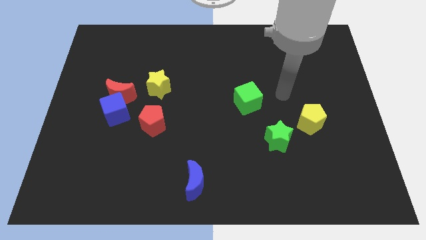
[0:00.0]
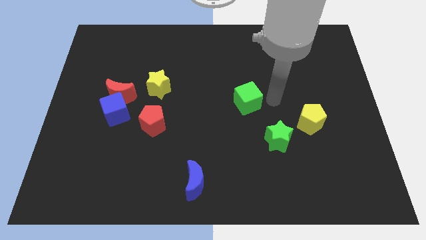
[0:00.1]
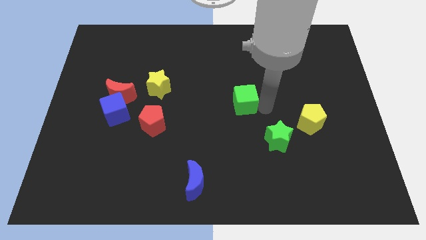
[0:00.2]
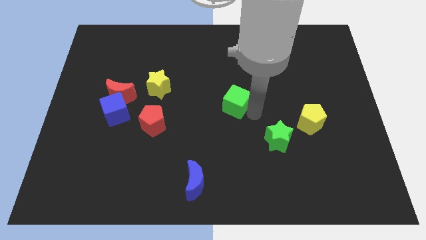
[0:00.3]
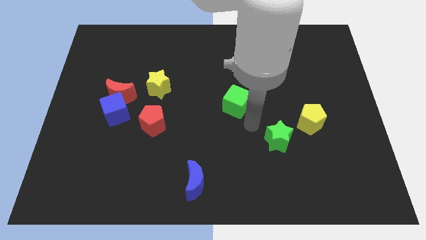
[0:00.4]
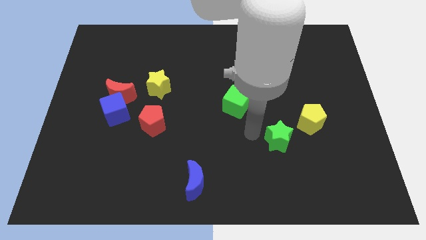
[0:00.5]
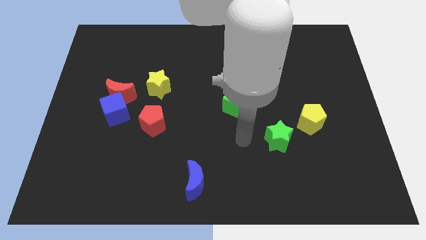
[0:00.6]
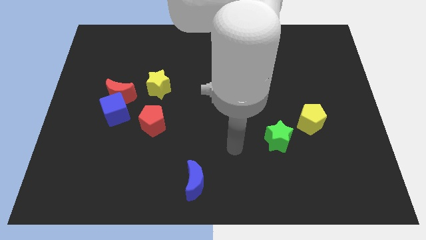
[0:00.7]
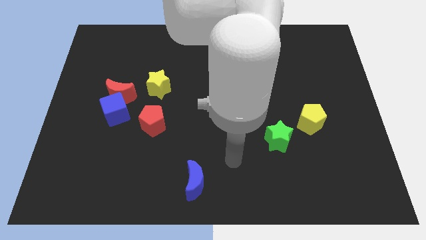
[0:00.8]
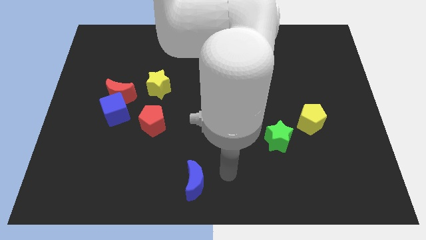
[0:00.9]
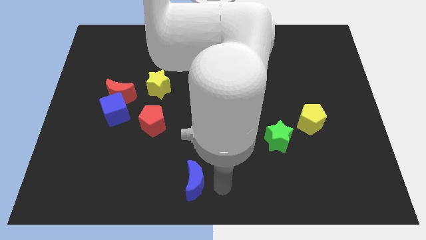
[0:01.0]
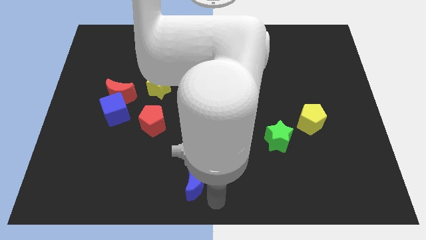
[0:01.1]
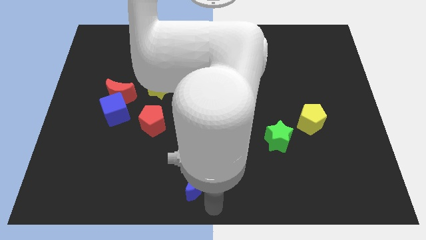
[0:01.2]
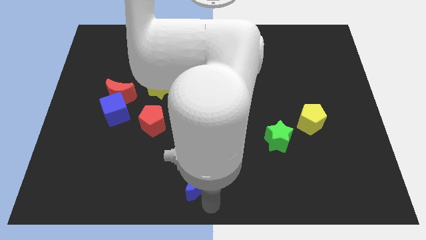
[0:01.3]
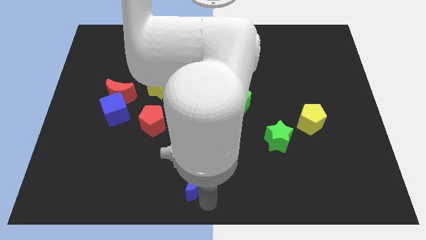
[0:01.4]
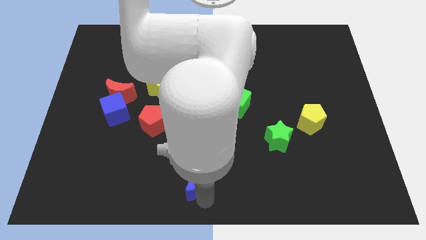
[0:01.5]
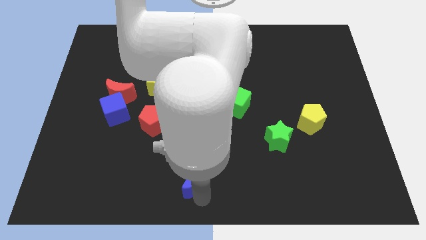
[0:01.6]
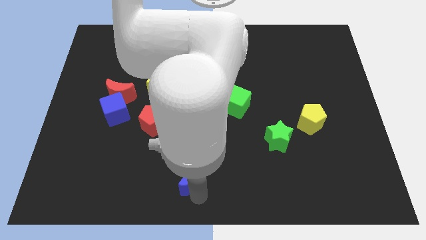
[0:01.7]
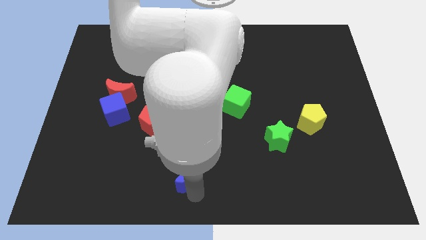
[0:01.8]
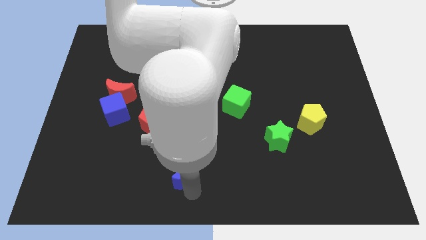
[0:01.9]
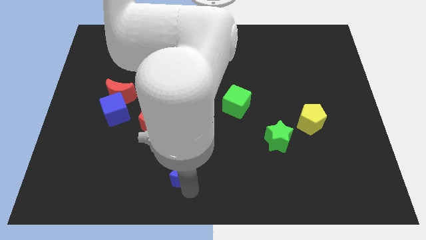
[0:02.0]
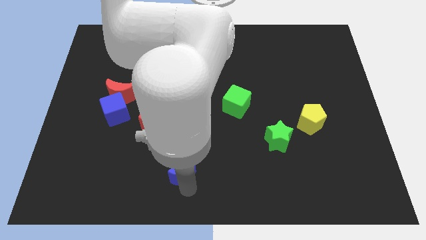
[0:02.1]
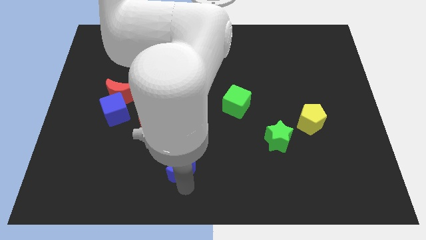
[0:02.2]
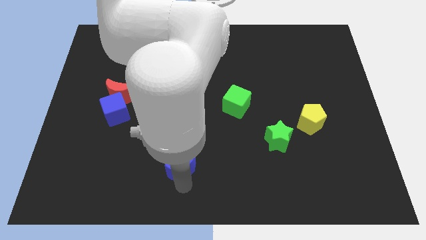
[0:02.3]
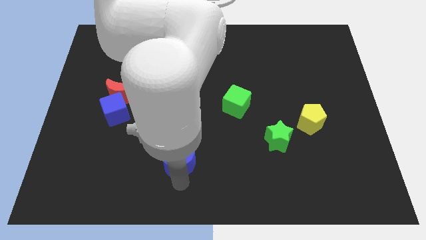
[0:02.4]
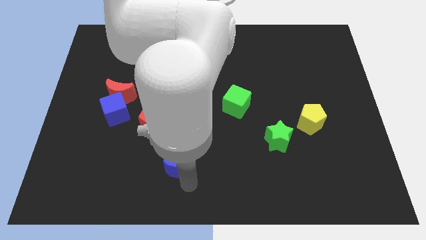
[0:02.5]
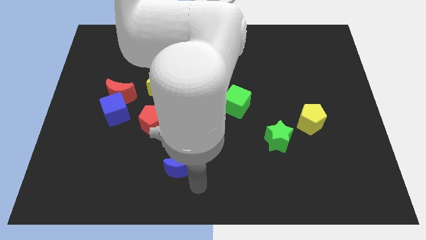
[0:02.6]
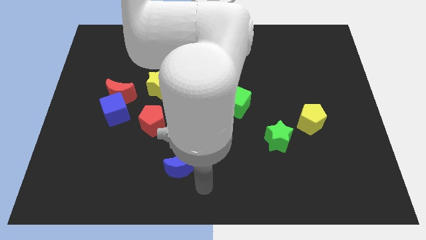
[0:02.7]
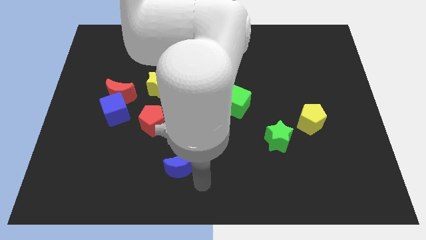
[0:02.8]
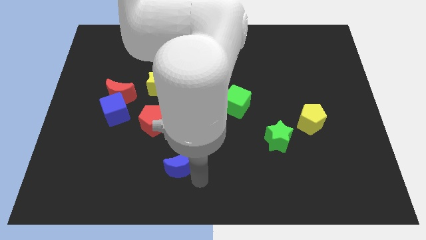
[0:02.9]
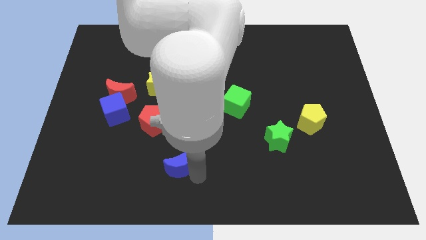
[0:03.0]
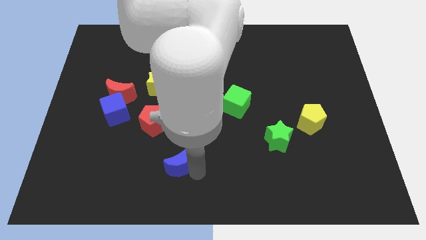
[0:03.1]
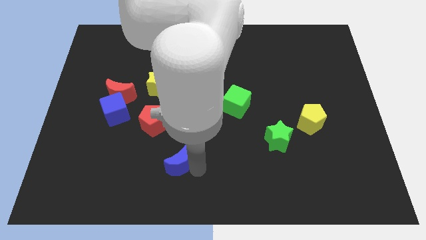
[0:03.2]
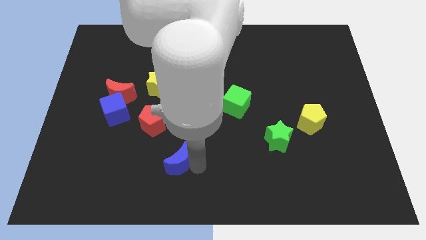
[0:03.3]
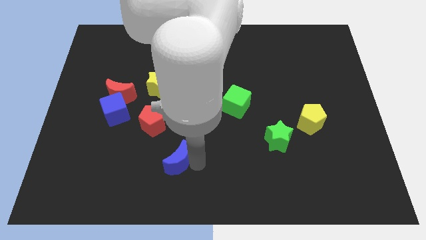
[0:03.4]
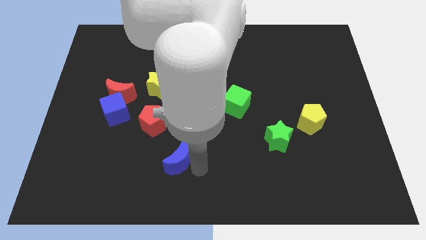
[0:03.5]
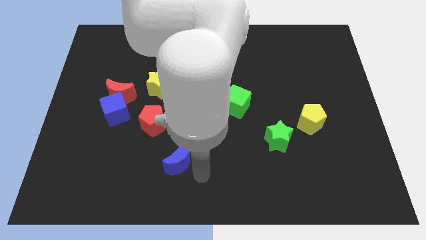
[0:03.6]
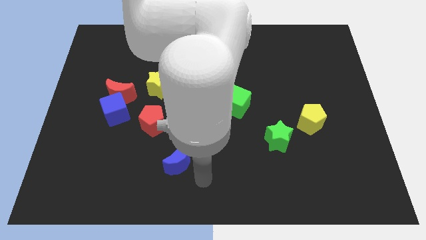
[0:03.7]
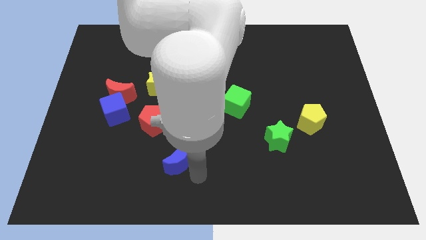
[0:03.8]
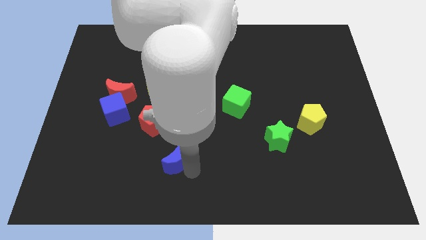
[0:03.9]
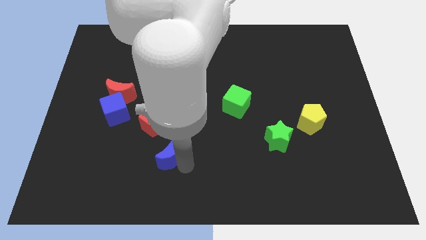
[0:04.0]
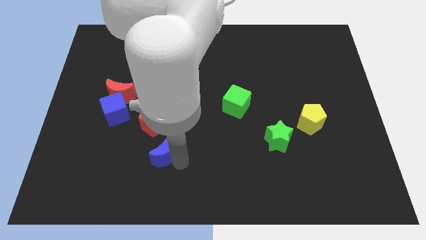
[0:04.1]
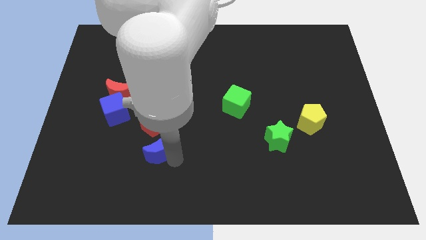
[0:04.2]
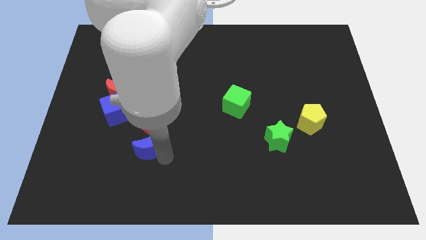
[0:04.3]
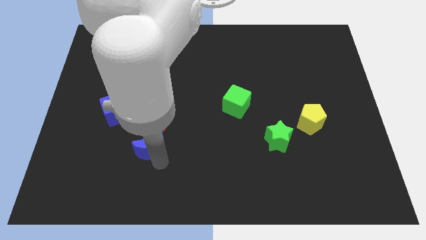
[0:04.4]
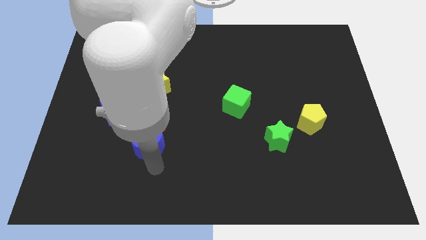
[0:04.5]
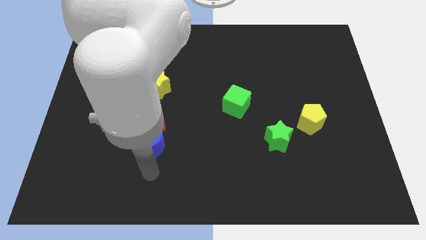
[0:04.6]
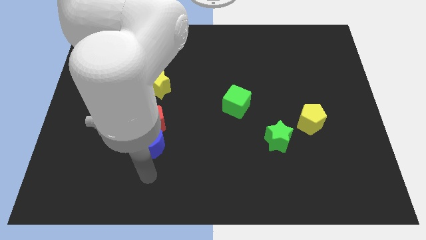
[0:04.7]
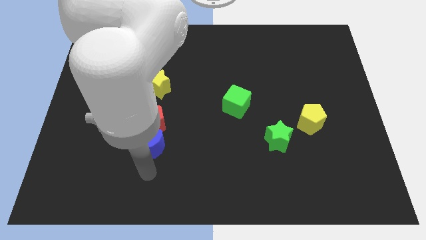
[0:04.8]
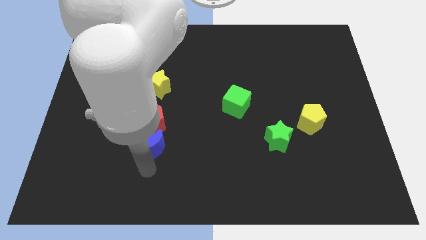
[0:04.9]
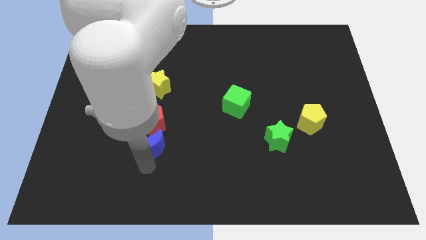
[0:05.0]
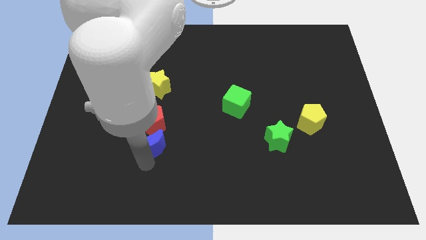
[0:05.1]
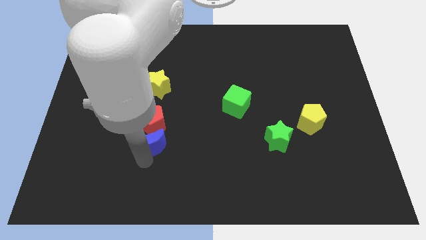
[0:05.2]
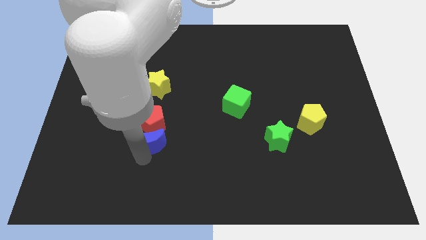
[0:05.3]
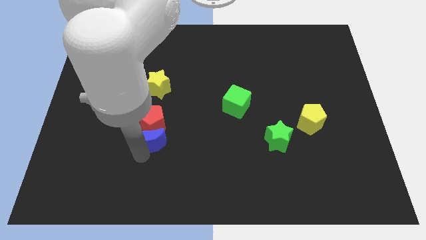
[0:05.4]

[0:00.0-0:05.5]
slide the blue moon to the bottom side of the yellow star

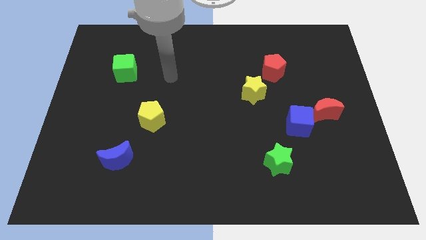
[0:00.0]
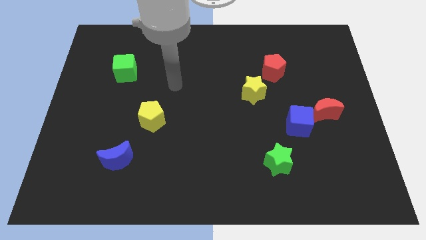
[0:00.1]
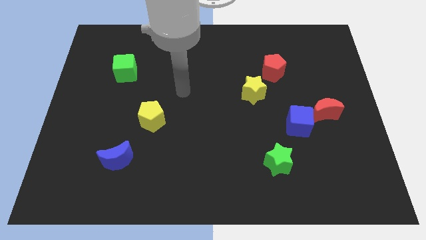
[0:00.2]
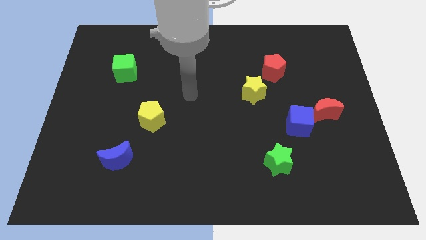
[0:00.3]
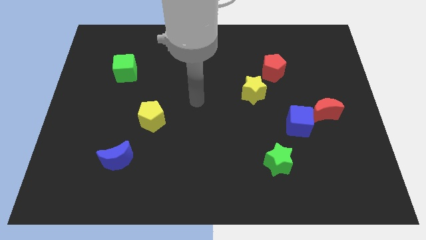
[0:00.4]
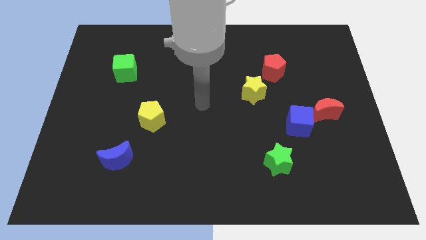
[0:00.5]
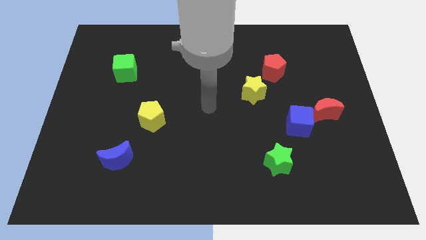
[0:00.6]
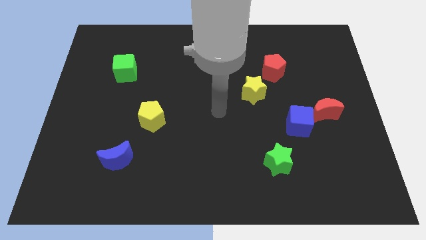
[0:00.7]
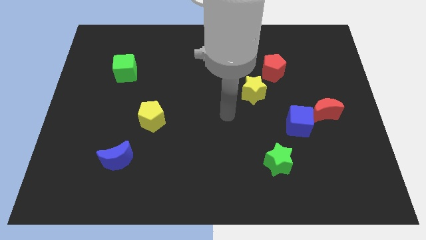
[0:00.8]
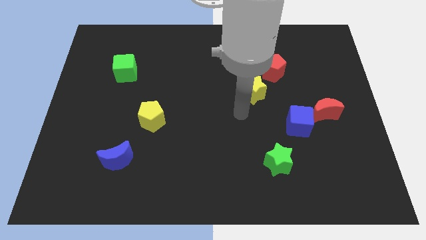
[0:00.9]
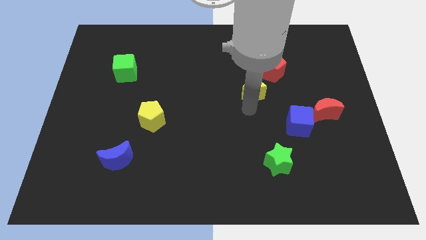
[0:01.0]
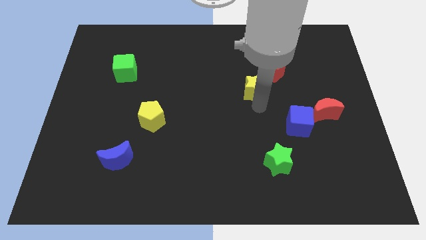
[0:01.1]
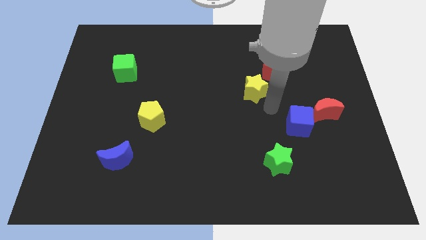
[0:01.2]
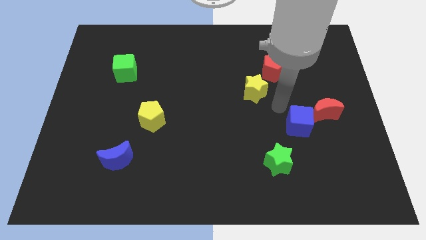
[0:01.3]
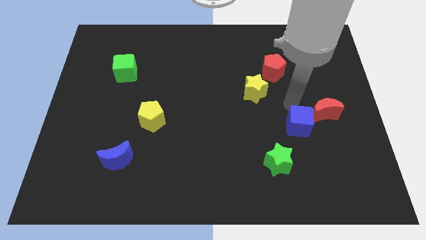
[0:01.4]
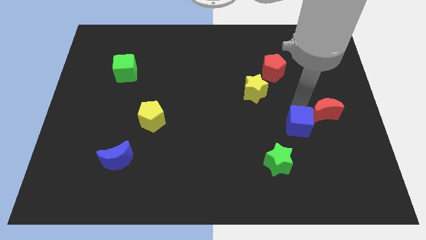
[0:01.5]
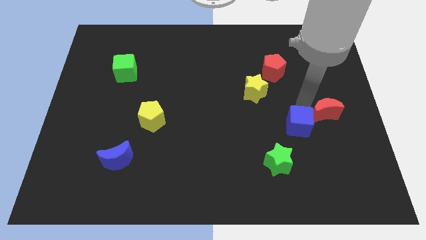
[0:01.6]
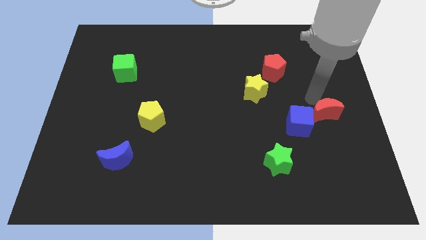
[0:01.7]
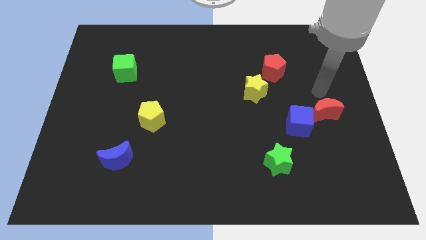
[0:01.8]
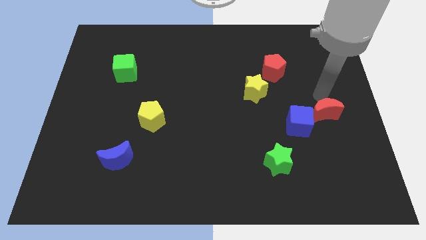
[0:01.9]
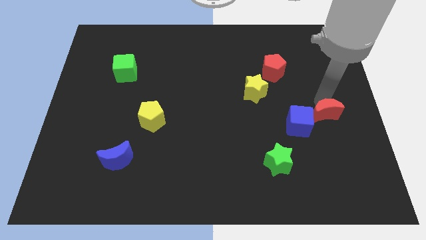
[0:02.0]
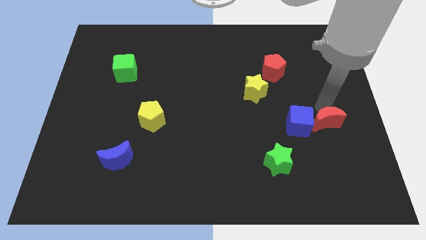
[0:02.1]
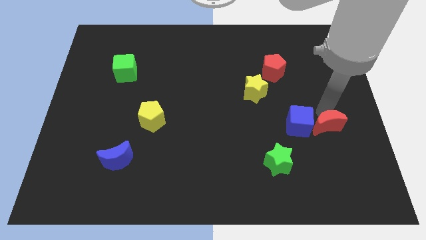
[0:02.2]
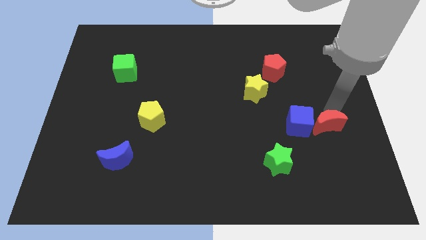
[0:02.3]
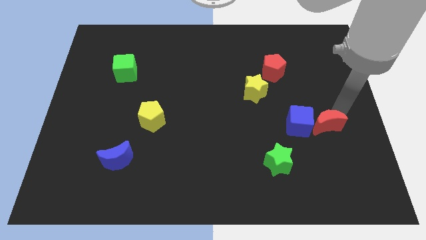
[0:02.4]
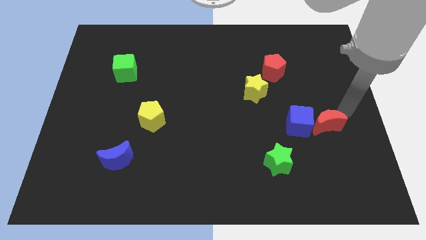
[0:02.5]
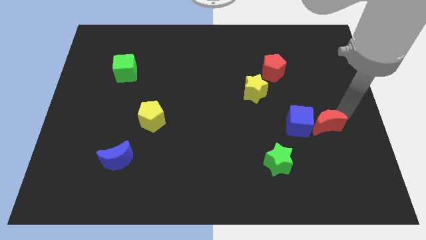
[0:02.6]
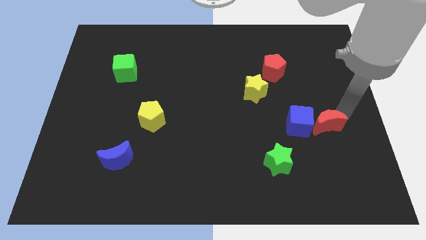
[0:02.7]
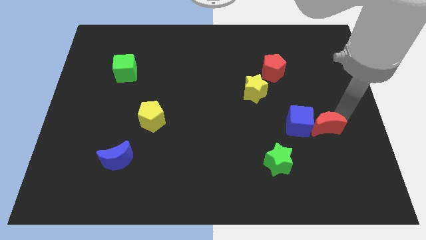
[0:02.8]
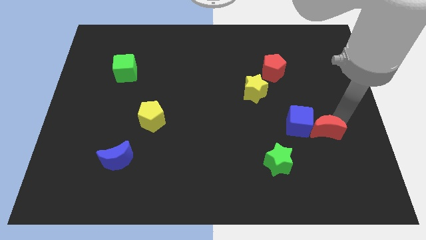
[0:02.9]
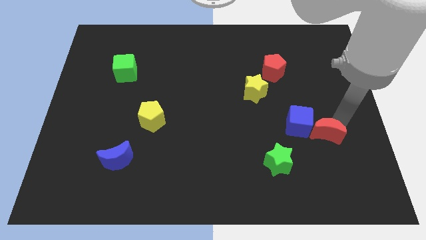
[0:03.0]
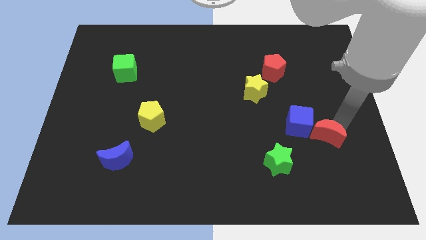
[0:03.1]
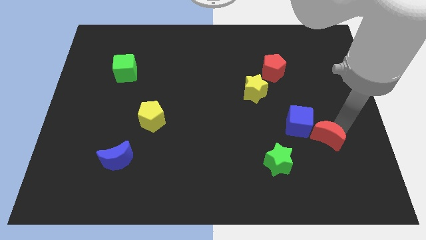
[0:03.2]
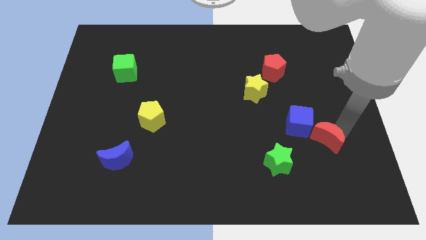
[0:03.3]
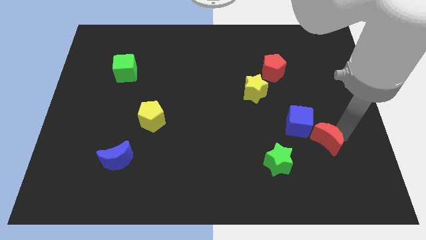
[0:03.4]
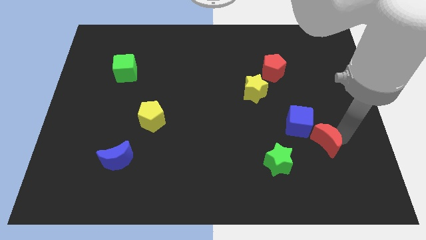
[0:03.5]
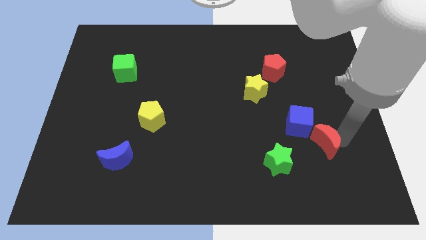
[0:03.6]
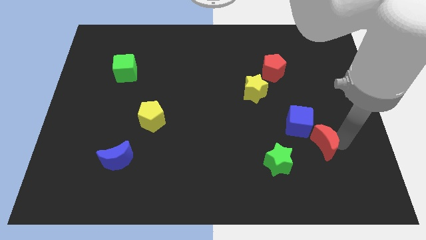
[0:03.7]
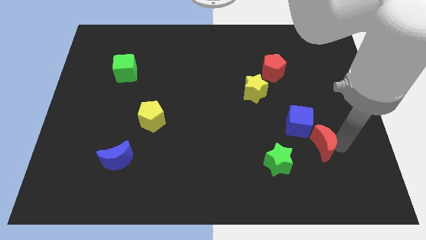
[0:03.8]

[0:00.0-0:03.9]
slide the red moon to the top right of the green star
